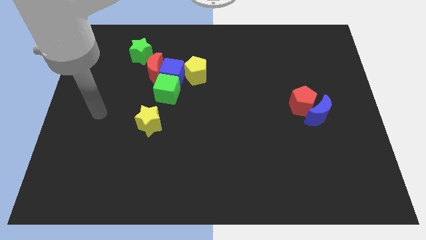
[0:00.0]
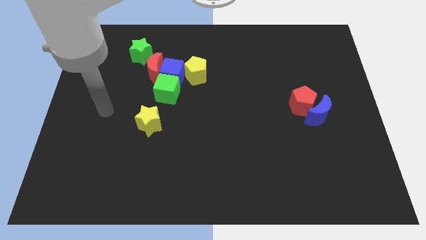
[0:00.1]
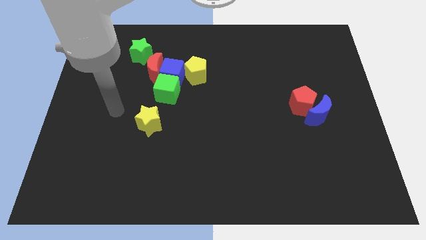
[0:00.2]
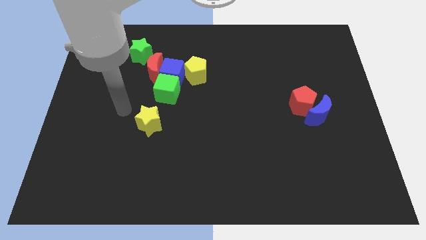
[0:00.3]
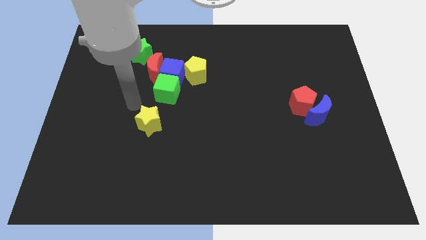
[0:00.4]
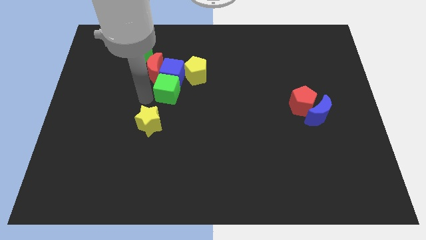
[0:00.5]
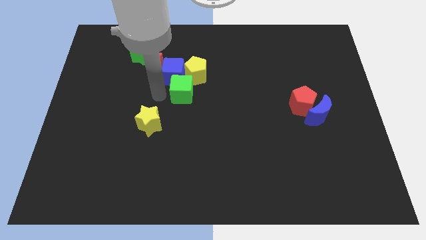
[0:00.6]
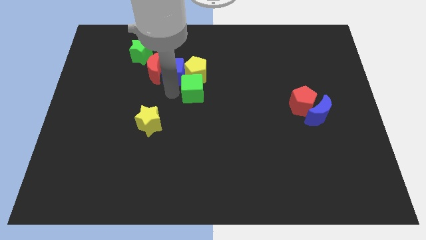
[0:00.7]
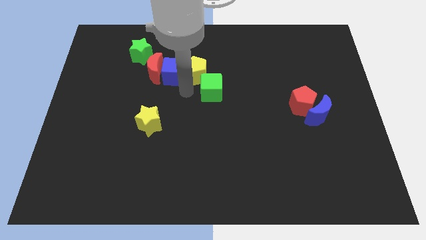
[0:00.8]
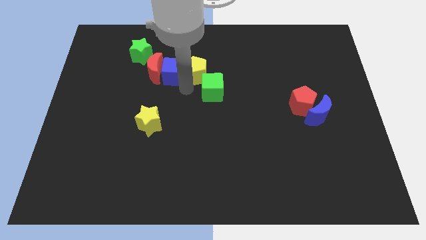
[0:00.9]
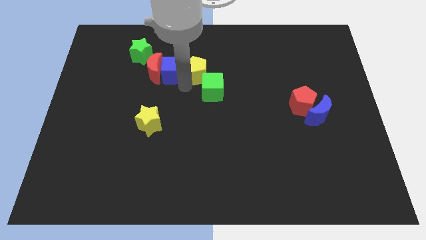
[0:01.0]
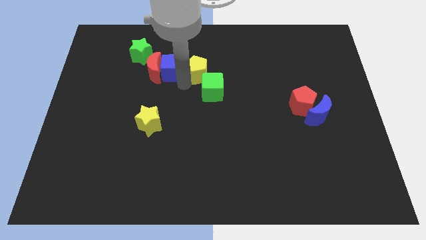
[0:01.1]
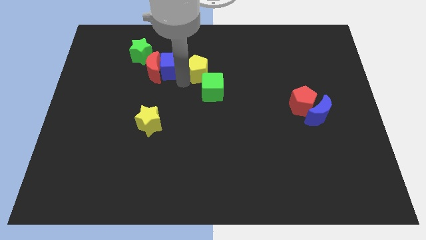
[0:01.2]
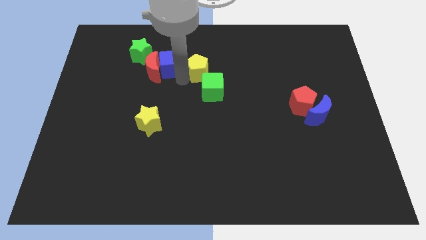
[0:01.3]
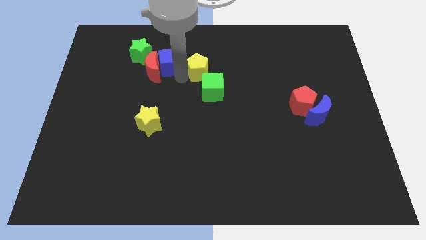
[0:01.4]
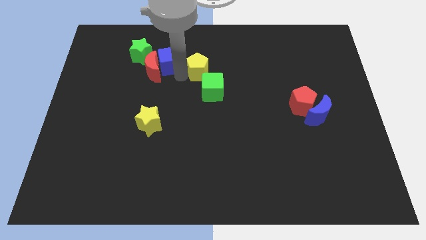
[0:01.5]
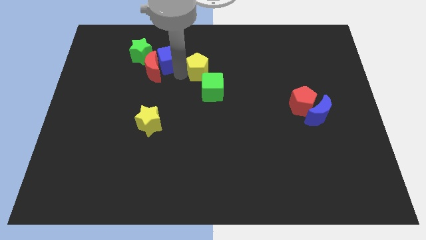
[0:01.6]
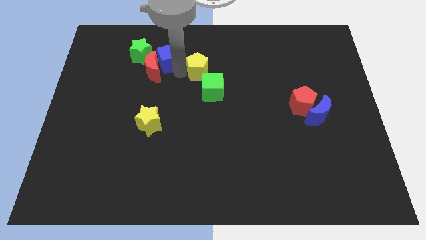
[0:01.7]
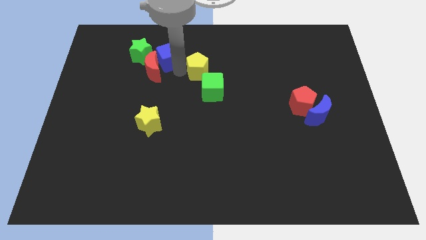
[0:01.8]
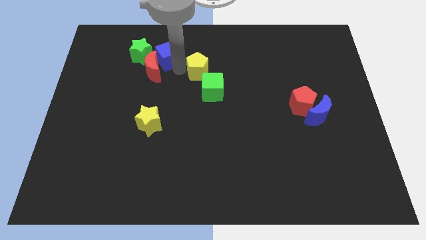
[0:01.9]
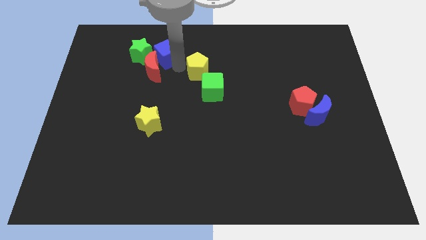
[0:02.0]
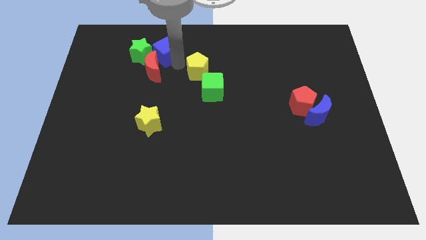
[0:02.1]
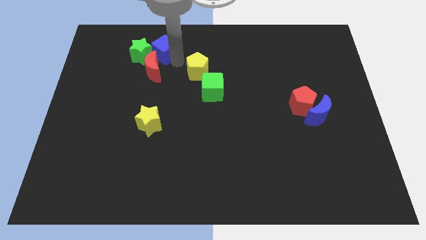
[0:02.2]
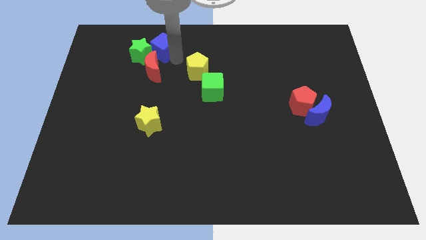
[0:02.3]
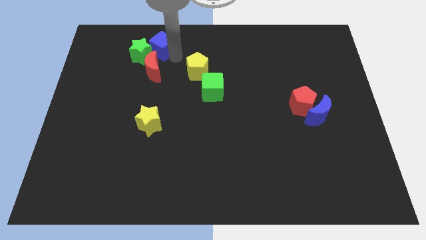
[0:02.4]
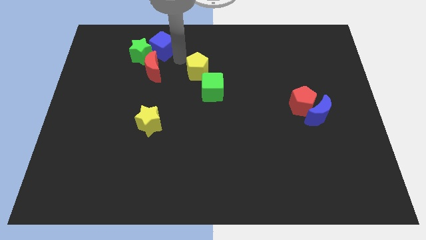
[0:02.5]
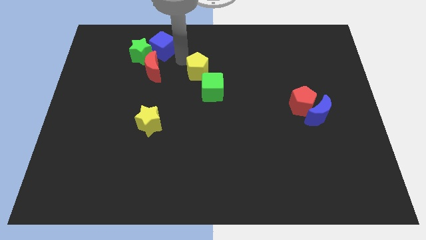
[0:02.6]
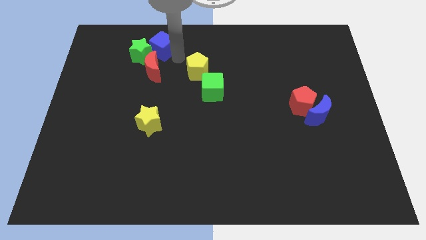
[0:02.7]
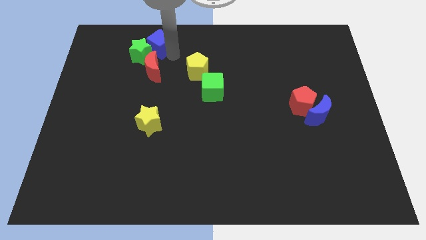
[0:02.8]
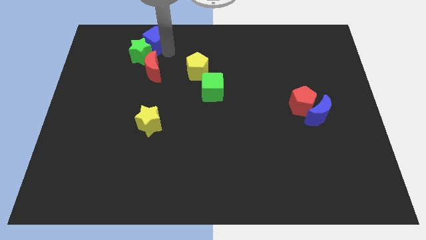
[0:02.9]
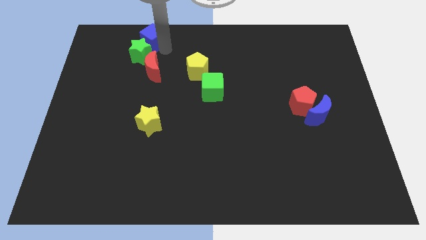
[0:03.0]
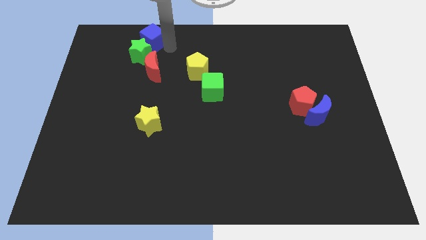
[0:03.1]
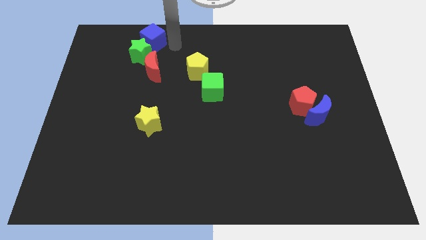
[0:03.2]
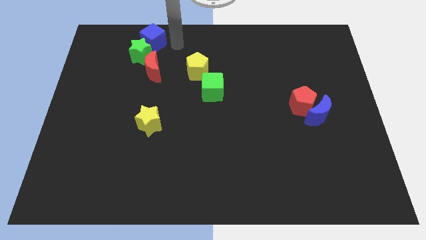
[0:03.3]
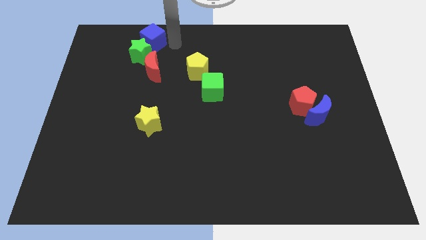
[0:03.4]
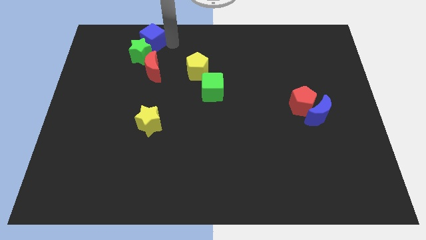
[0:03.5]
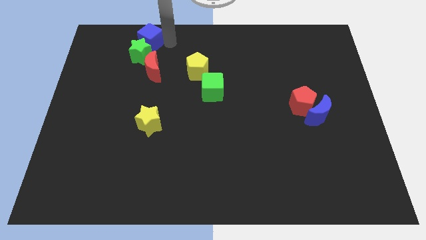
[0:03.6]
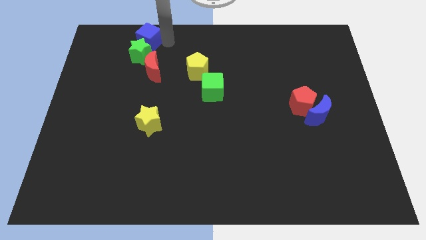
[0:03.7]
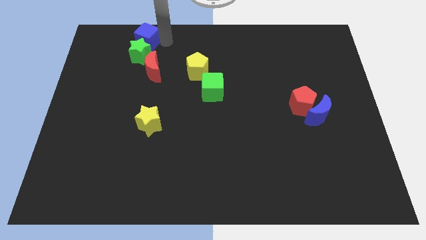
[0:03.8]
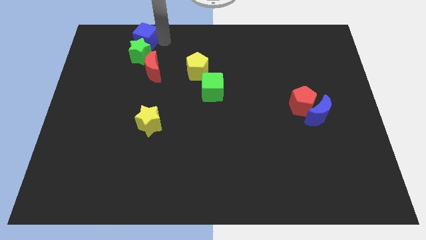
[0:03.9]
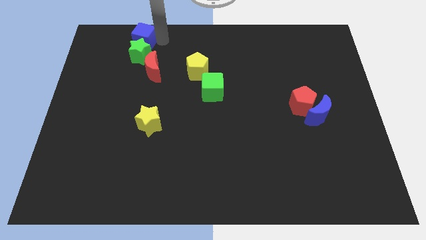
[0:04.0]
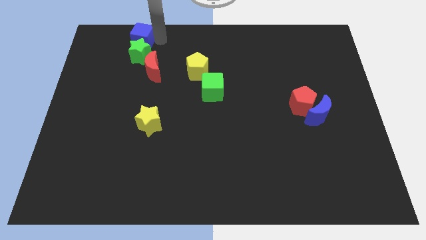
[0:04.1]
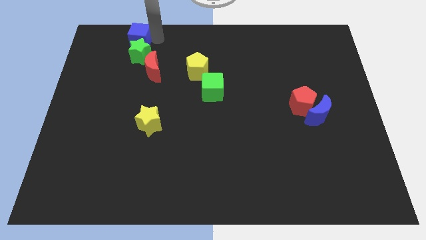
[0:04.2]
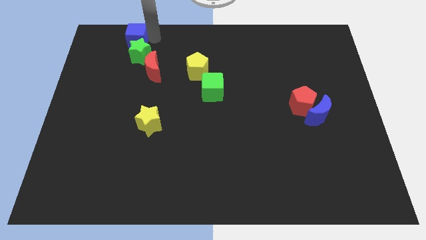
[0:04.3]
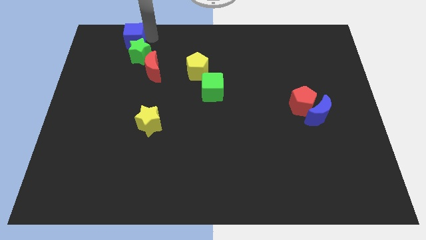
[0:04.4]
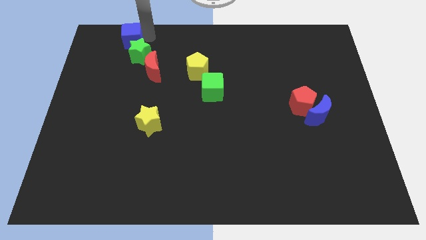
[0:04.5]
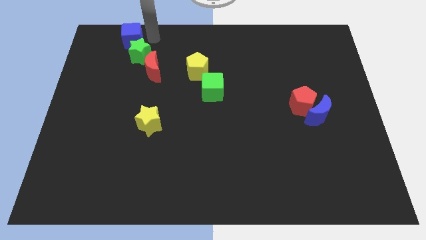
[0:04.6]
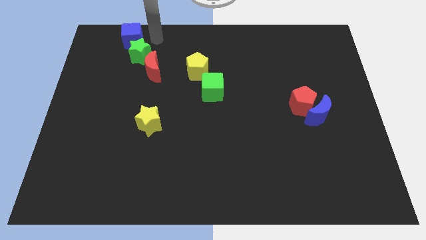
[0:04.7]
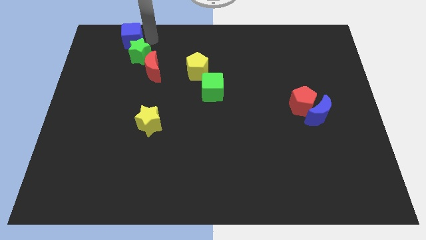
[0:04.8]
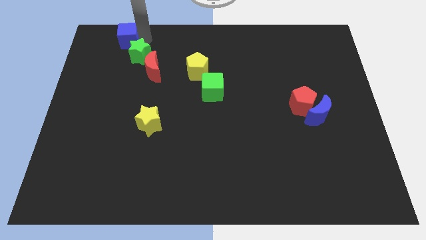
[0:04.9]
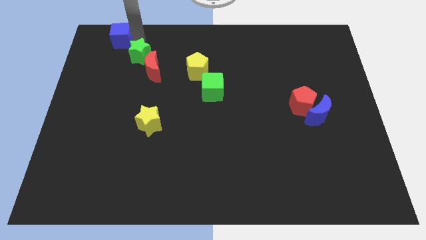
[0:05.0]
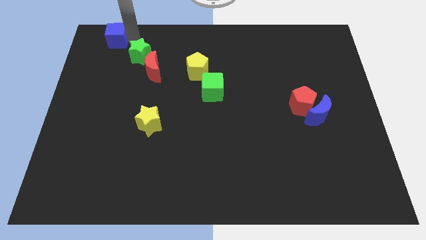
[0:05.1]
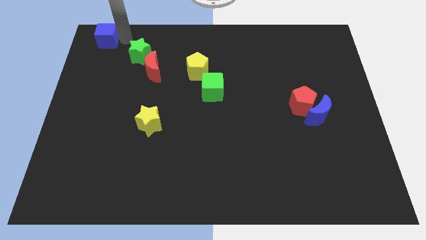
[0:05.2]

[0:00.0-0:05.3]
push the blue cube to the upper left corner
